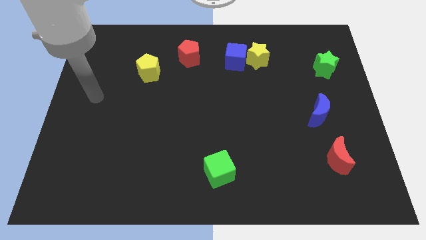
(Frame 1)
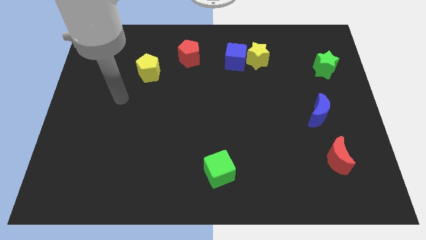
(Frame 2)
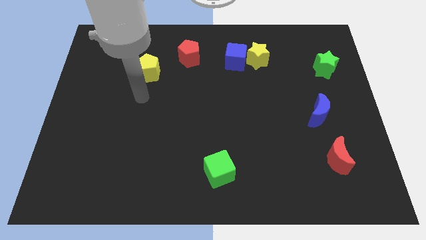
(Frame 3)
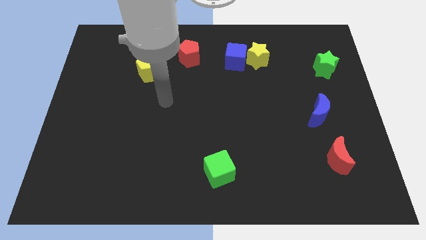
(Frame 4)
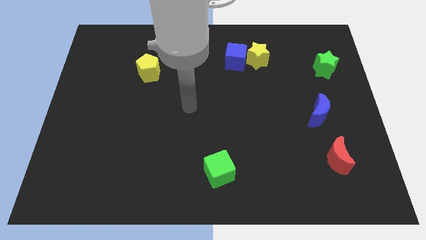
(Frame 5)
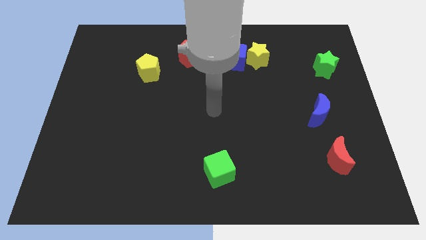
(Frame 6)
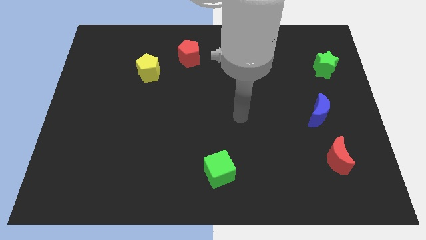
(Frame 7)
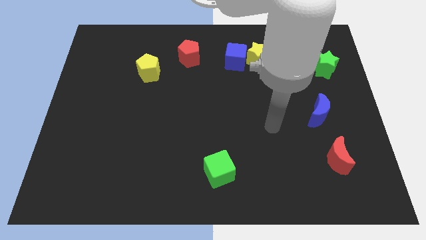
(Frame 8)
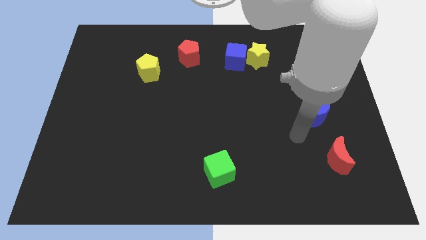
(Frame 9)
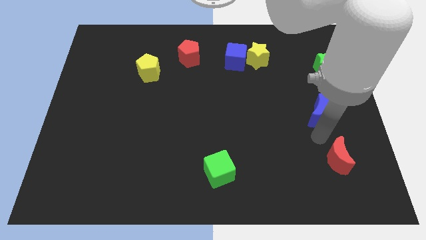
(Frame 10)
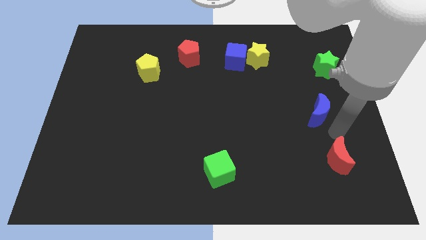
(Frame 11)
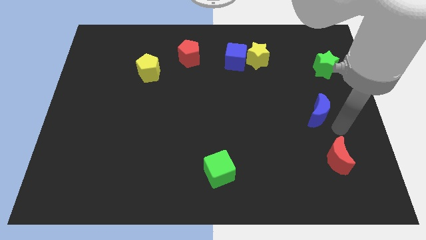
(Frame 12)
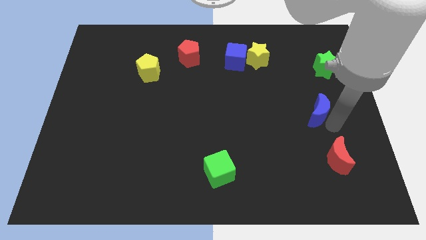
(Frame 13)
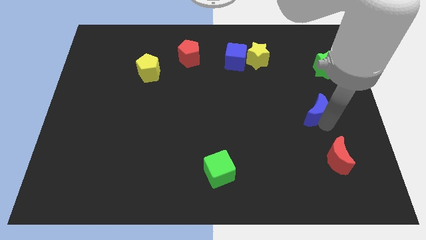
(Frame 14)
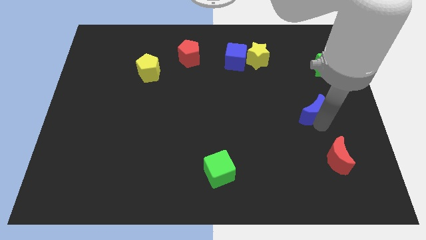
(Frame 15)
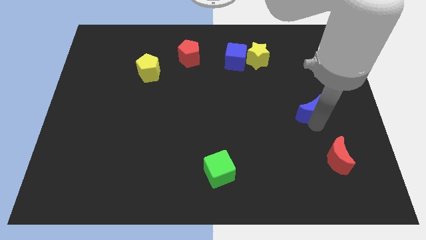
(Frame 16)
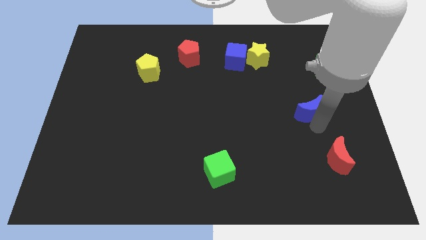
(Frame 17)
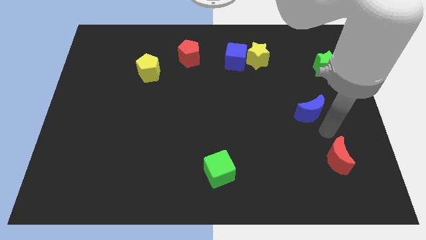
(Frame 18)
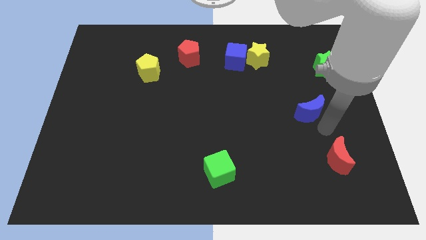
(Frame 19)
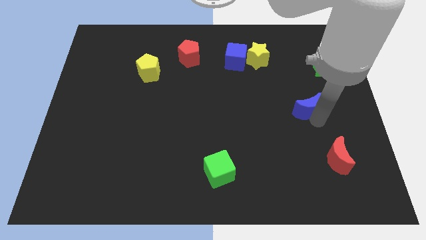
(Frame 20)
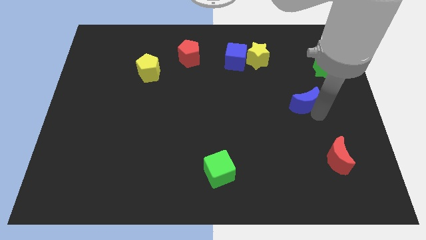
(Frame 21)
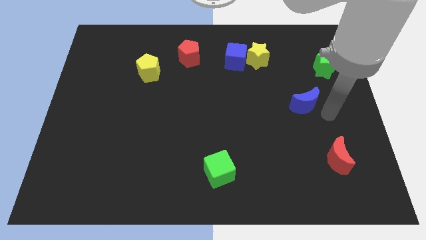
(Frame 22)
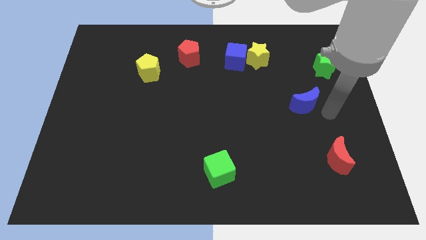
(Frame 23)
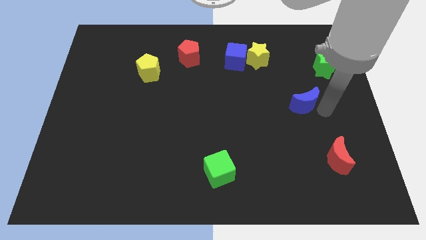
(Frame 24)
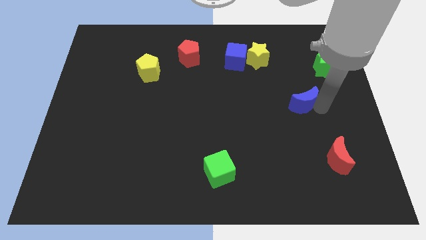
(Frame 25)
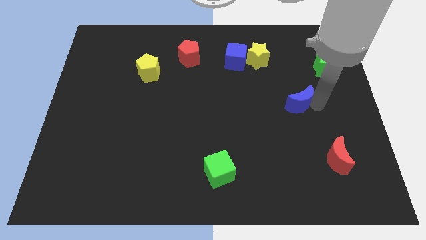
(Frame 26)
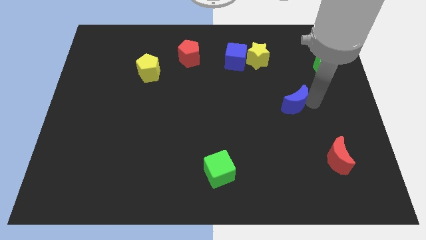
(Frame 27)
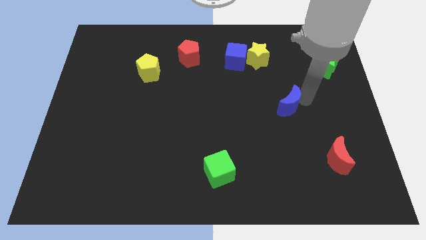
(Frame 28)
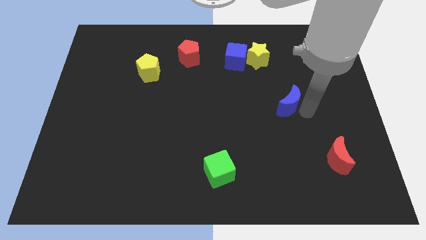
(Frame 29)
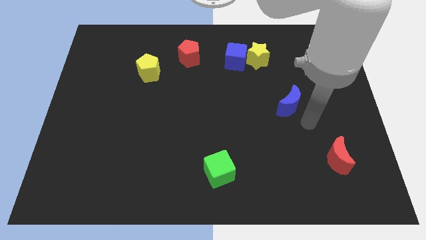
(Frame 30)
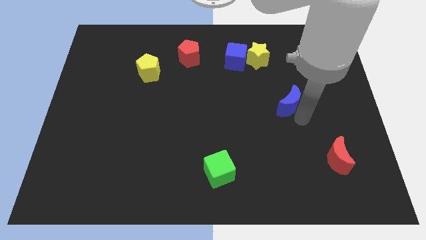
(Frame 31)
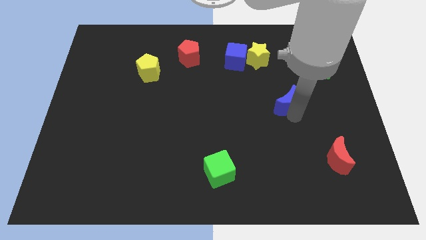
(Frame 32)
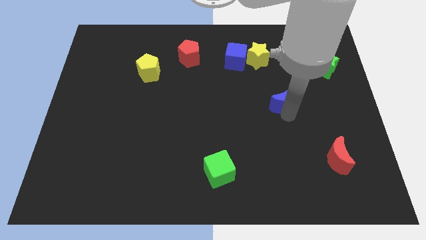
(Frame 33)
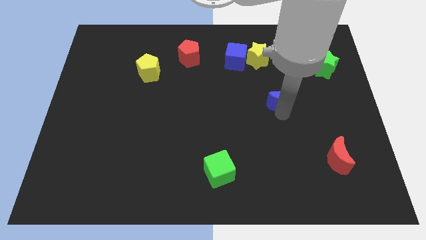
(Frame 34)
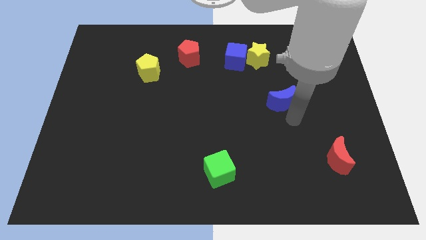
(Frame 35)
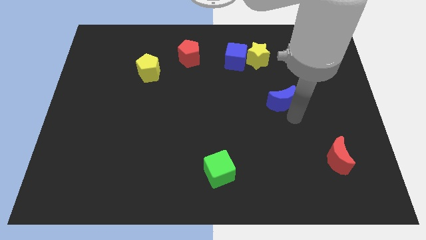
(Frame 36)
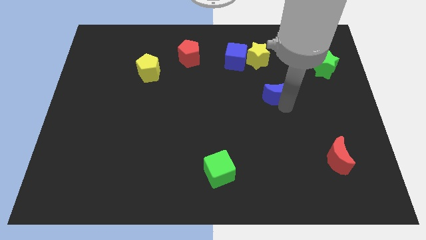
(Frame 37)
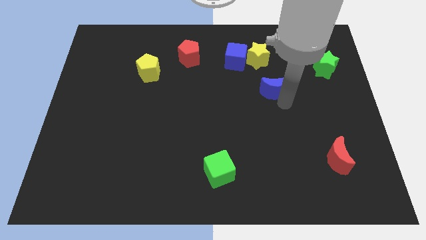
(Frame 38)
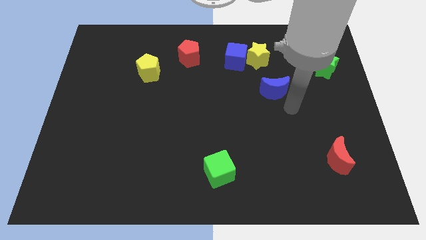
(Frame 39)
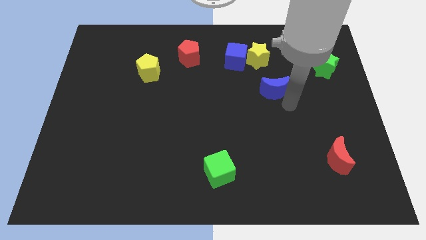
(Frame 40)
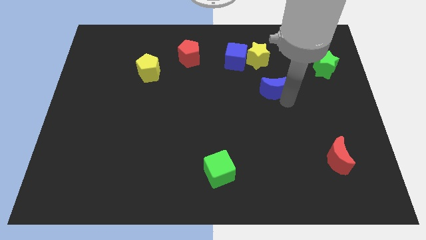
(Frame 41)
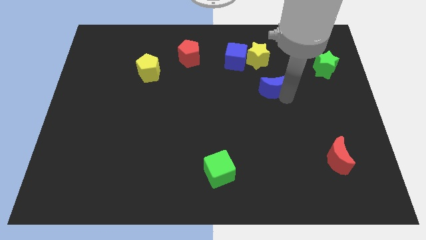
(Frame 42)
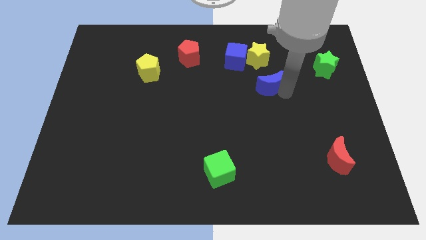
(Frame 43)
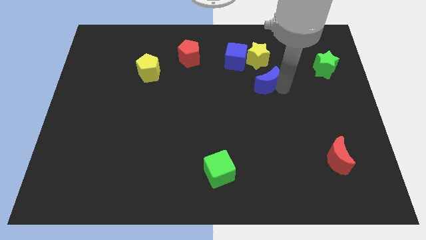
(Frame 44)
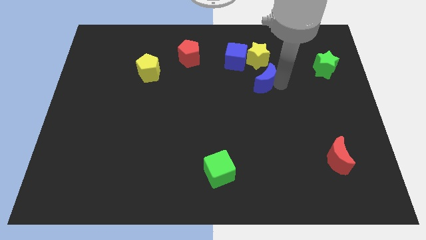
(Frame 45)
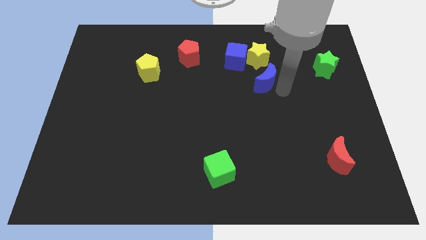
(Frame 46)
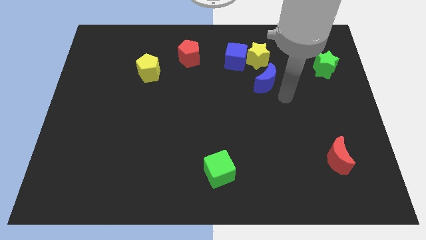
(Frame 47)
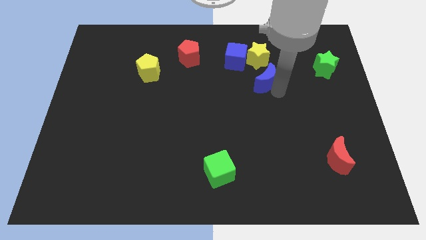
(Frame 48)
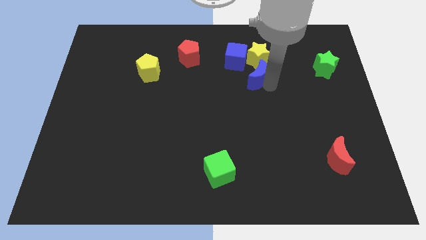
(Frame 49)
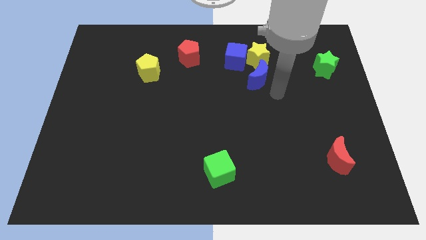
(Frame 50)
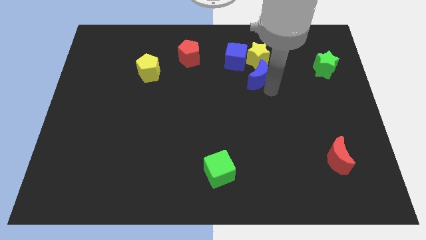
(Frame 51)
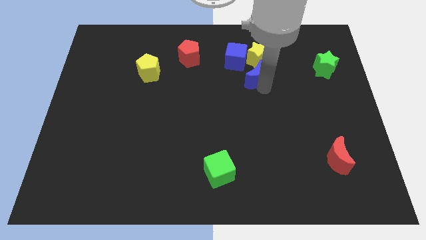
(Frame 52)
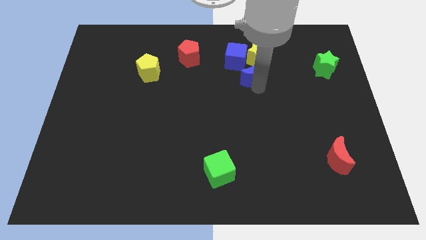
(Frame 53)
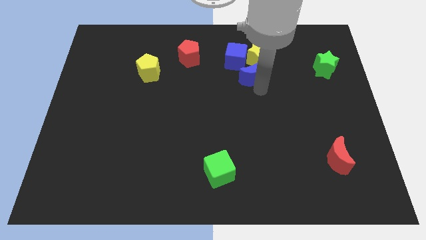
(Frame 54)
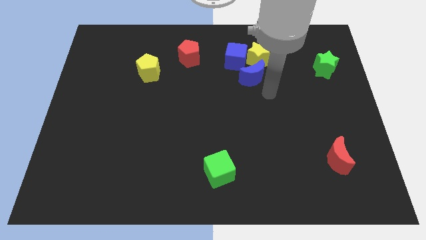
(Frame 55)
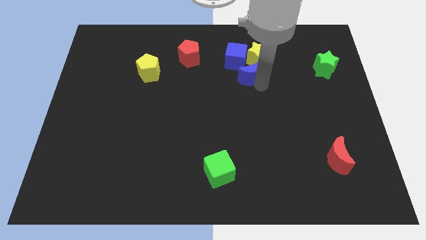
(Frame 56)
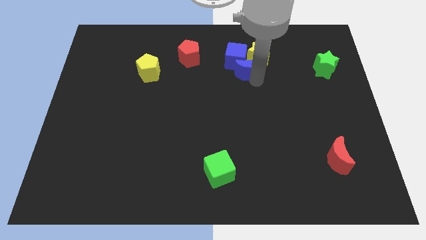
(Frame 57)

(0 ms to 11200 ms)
put the blue moon close to the blue cube

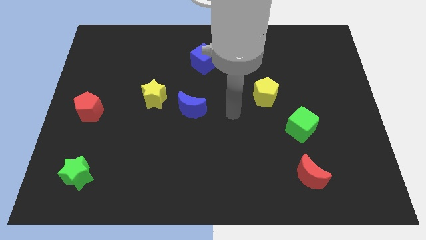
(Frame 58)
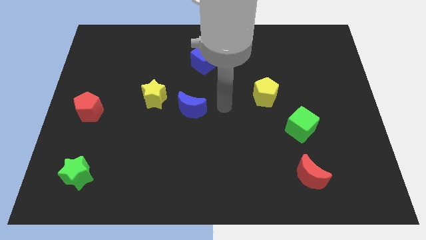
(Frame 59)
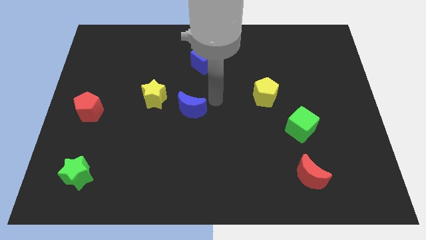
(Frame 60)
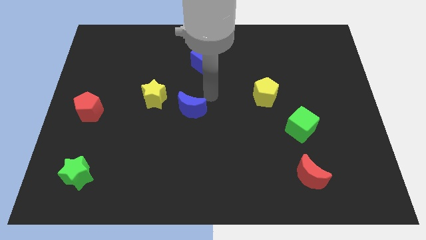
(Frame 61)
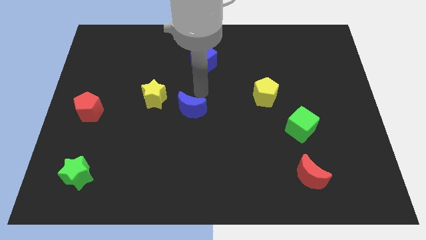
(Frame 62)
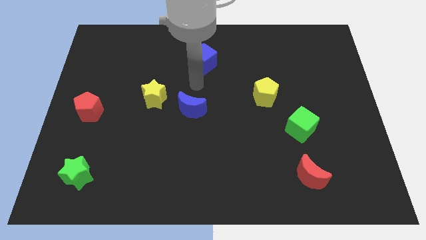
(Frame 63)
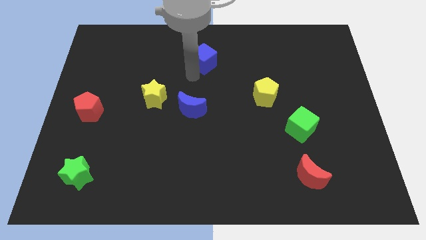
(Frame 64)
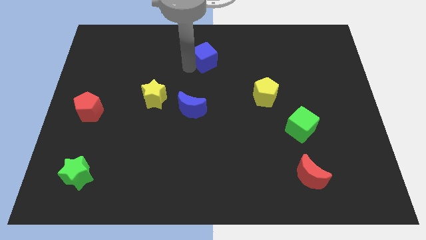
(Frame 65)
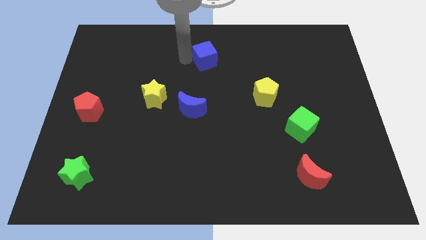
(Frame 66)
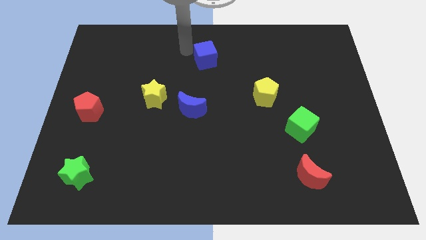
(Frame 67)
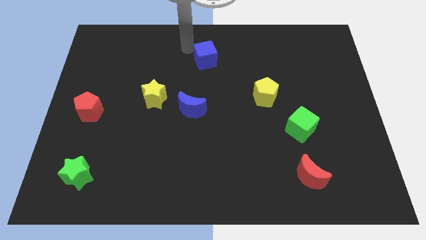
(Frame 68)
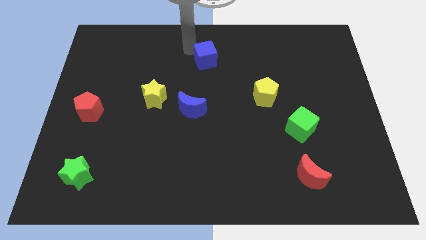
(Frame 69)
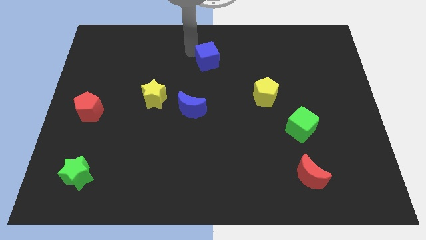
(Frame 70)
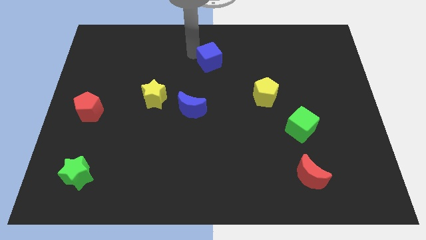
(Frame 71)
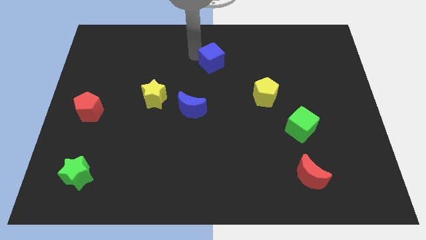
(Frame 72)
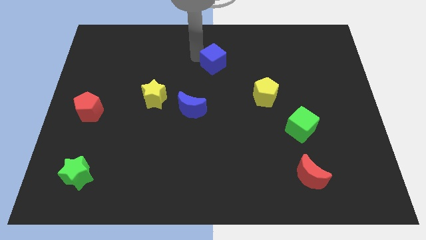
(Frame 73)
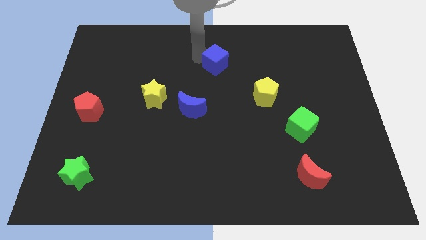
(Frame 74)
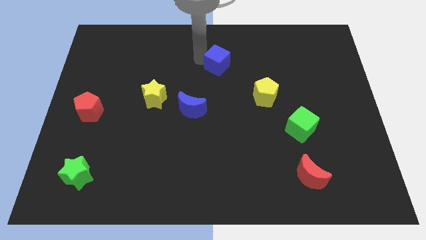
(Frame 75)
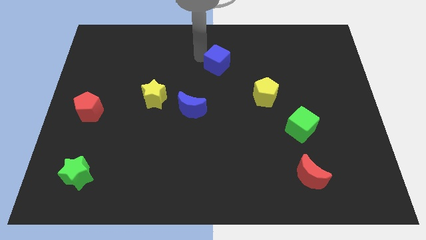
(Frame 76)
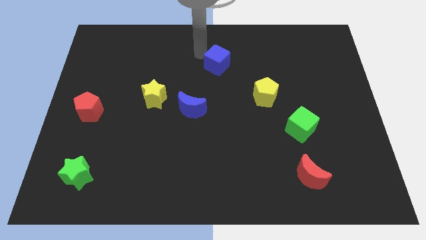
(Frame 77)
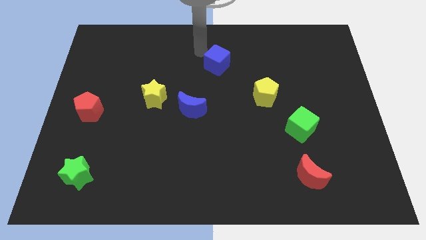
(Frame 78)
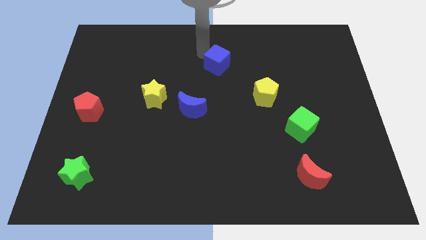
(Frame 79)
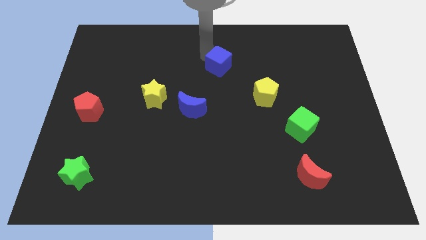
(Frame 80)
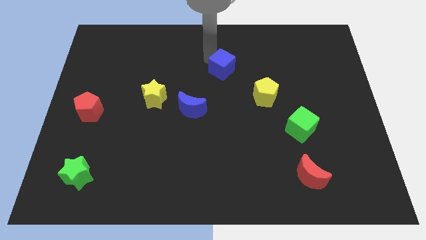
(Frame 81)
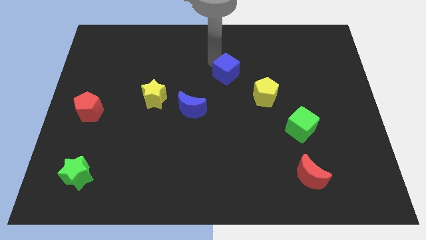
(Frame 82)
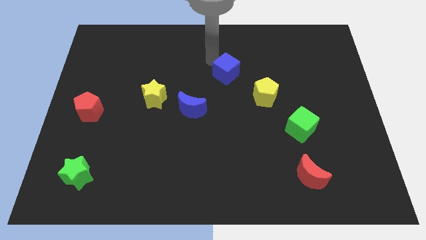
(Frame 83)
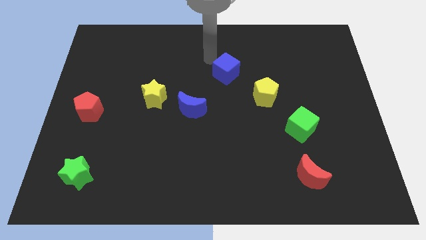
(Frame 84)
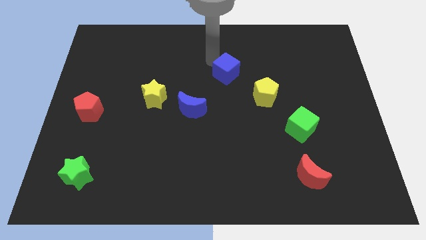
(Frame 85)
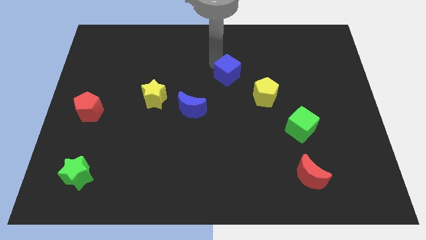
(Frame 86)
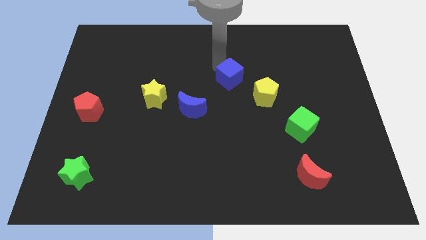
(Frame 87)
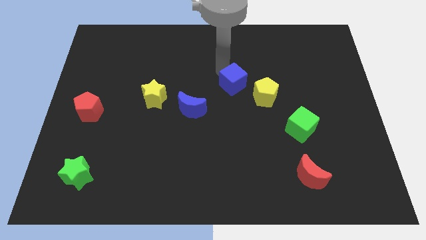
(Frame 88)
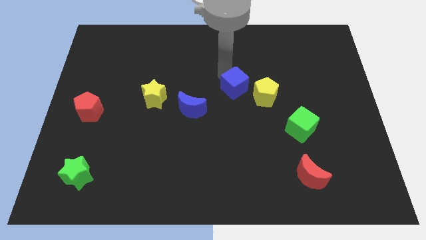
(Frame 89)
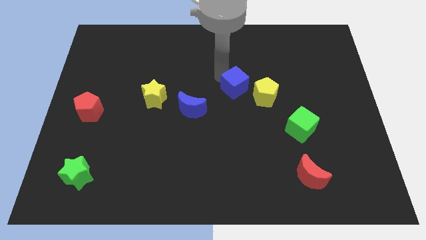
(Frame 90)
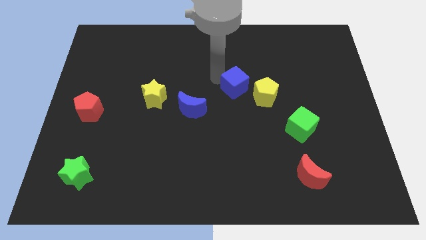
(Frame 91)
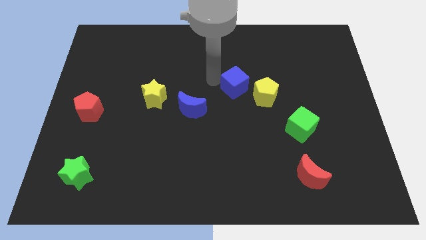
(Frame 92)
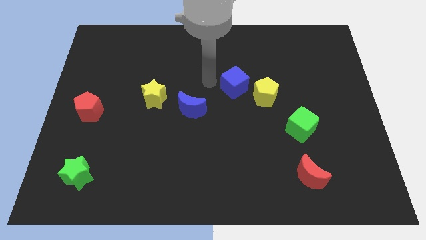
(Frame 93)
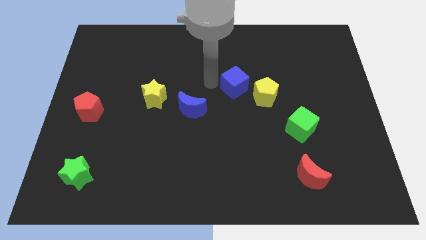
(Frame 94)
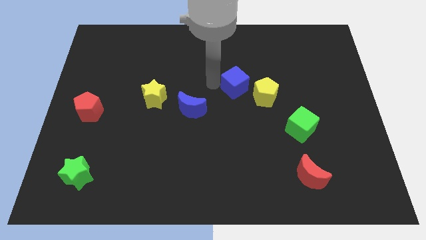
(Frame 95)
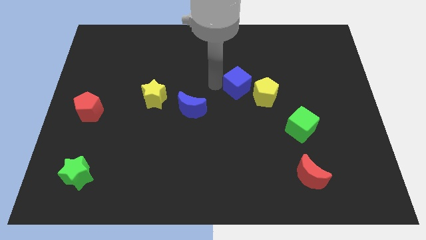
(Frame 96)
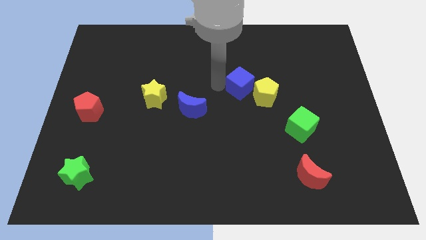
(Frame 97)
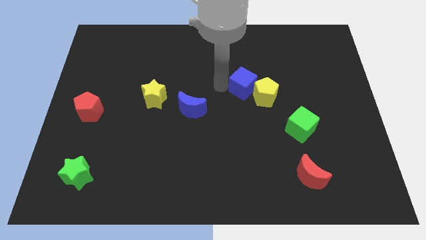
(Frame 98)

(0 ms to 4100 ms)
push the blue cube to the yellow pentagon
